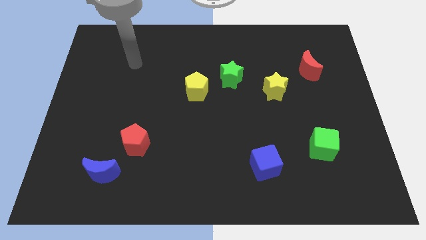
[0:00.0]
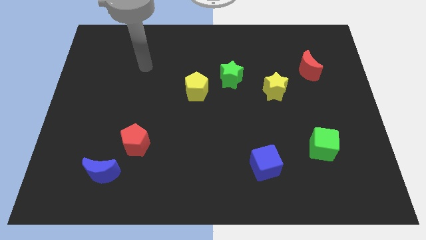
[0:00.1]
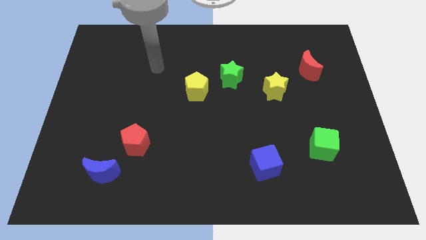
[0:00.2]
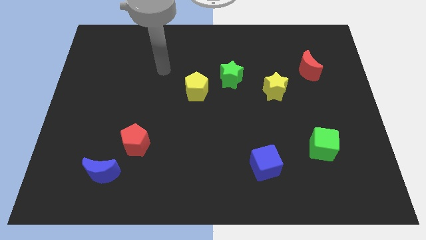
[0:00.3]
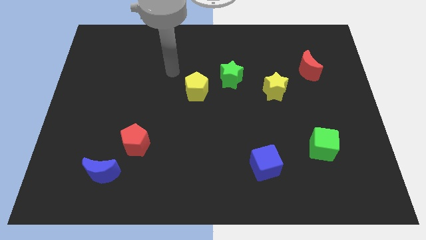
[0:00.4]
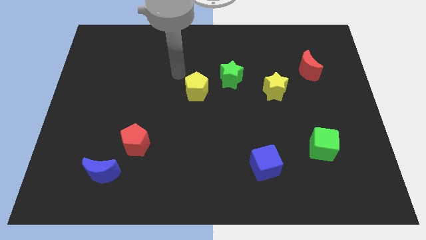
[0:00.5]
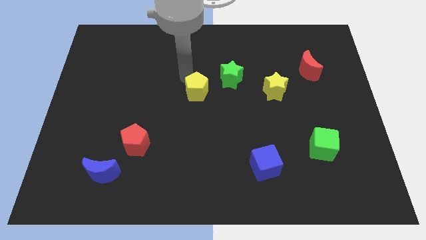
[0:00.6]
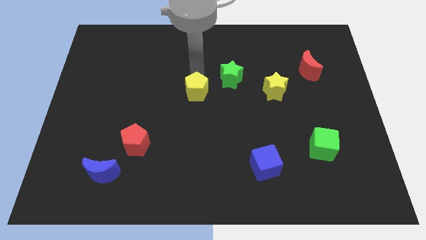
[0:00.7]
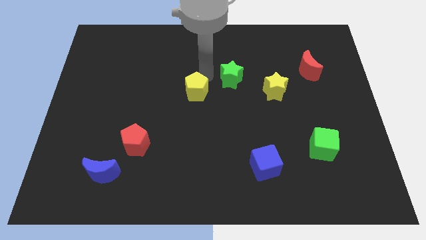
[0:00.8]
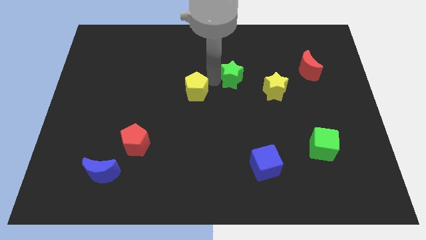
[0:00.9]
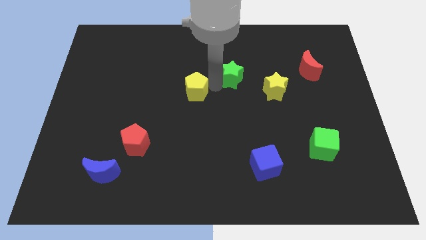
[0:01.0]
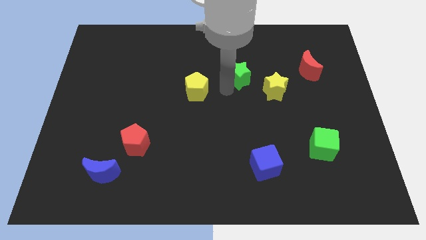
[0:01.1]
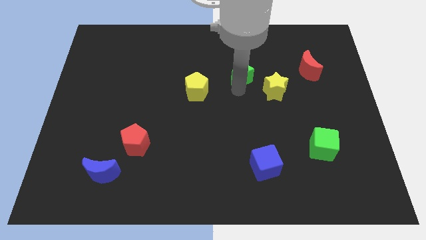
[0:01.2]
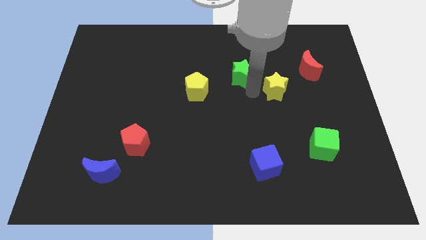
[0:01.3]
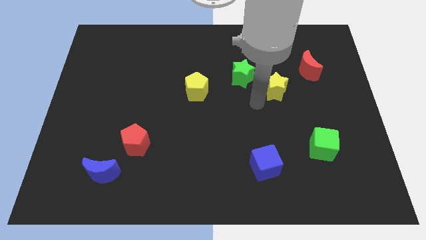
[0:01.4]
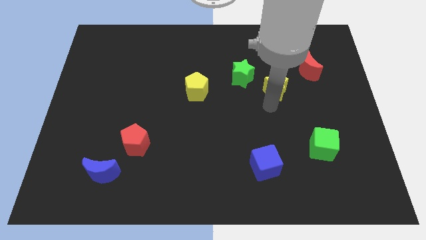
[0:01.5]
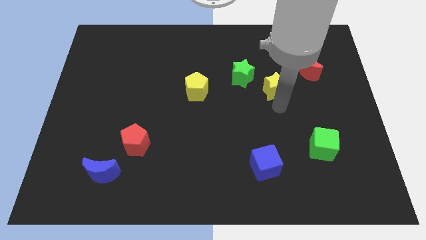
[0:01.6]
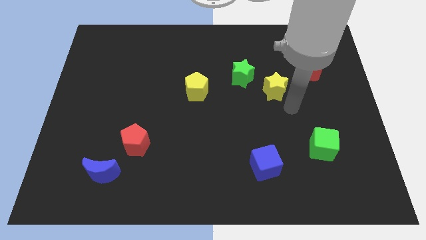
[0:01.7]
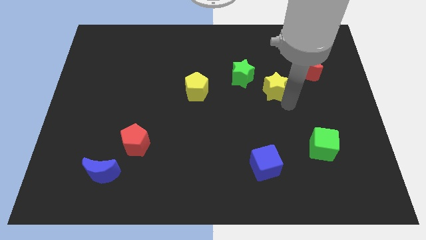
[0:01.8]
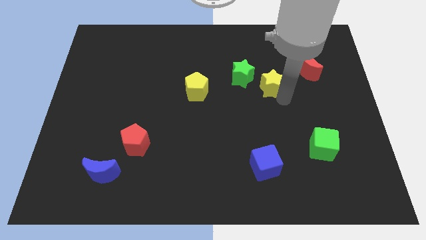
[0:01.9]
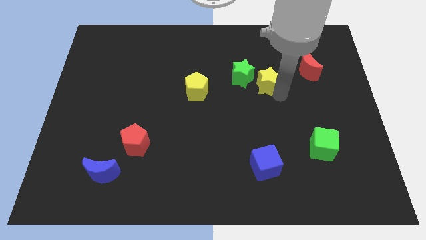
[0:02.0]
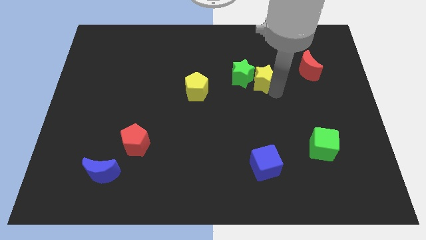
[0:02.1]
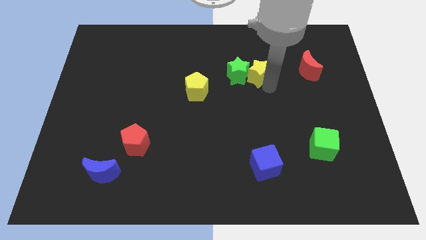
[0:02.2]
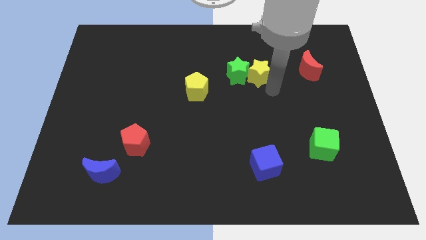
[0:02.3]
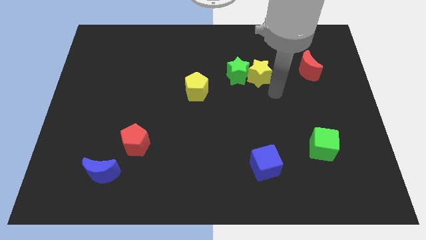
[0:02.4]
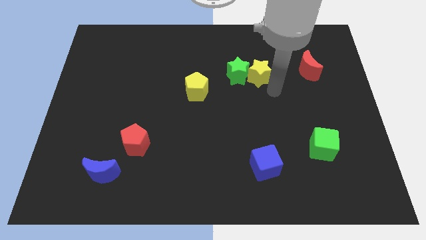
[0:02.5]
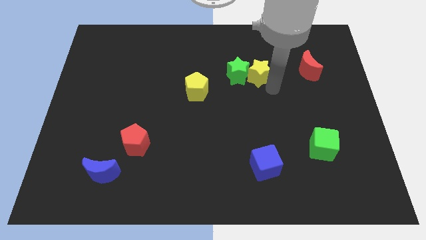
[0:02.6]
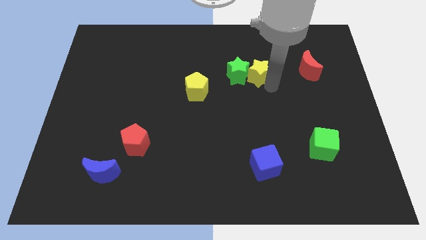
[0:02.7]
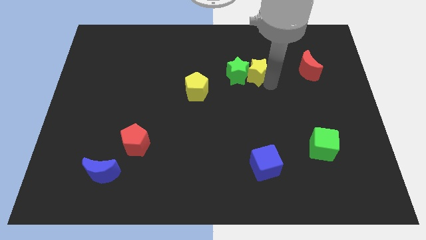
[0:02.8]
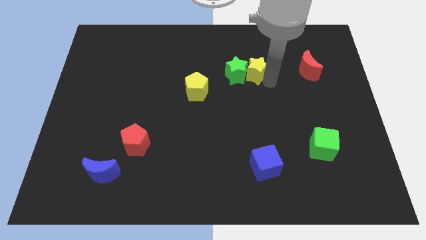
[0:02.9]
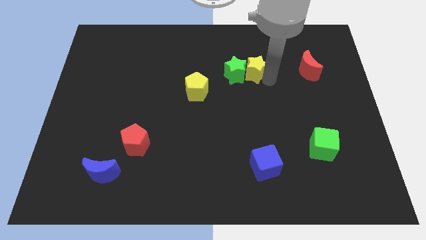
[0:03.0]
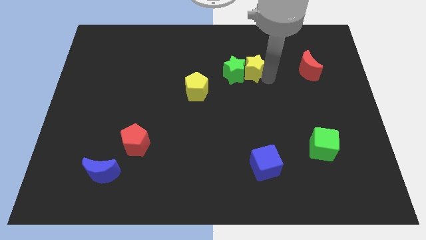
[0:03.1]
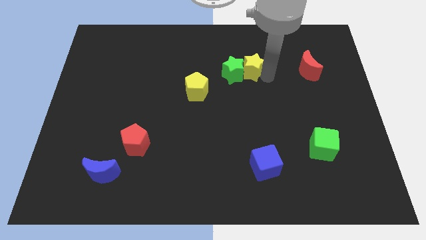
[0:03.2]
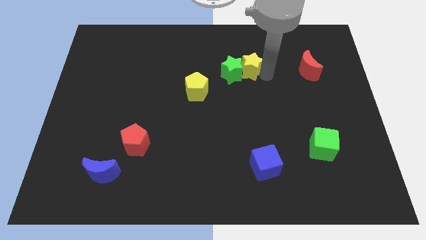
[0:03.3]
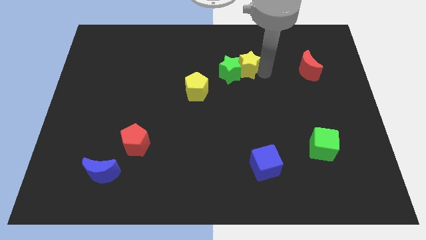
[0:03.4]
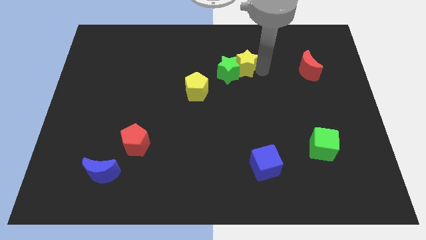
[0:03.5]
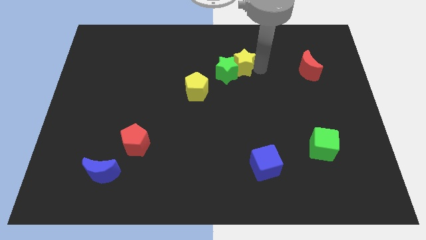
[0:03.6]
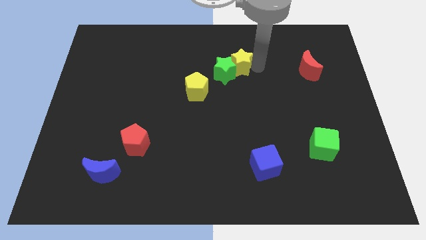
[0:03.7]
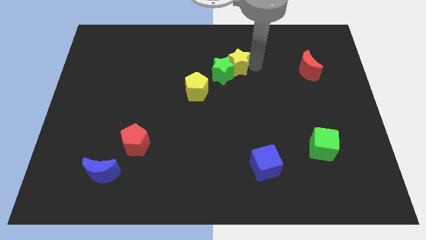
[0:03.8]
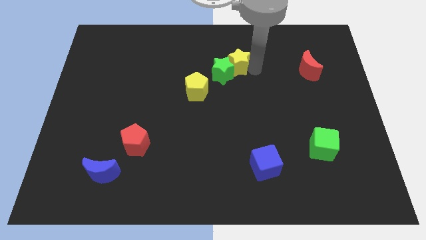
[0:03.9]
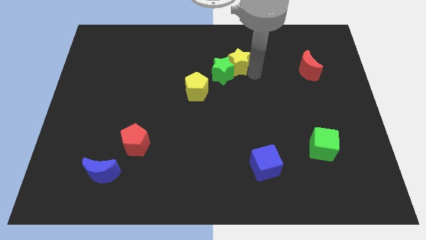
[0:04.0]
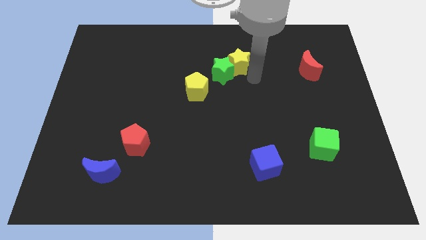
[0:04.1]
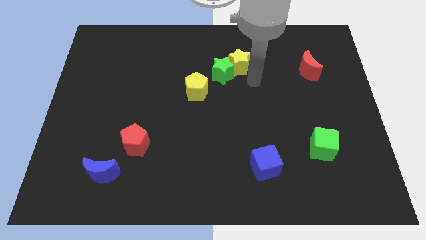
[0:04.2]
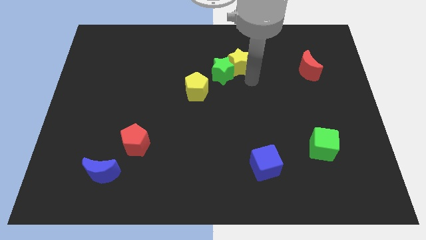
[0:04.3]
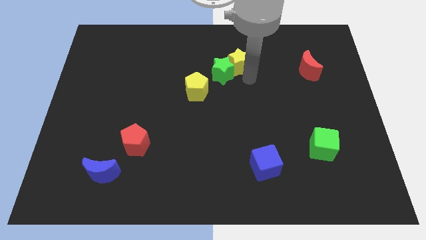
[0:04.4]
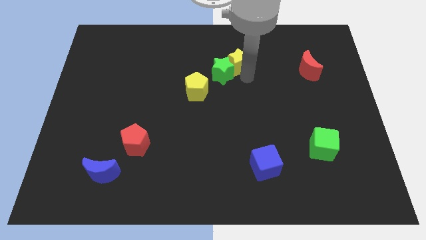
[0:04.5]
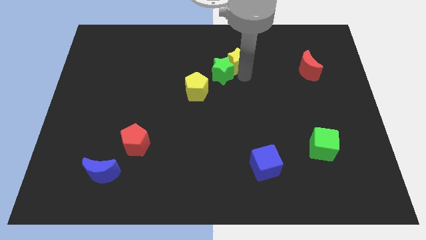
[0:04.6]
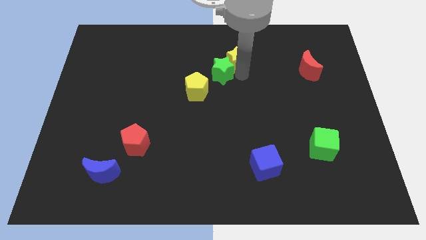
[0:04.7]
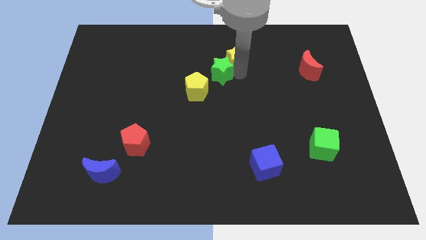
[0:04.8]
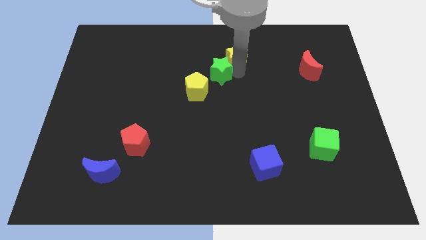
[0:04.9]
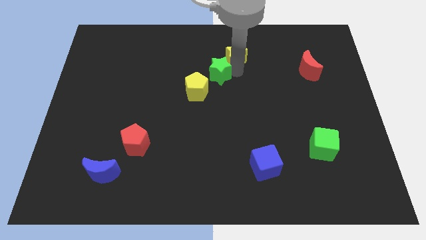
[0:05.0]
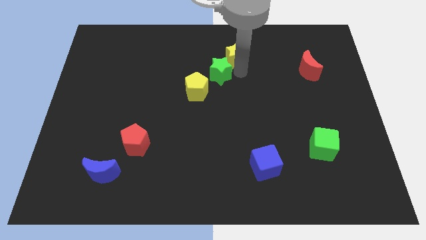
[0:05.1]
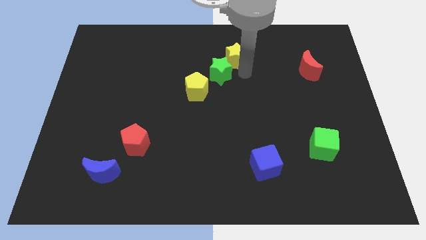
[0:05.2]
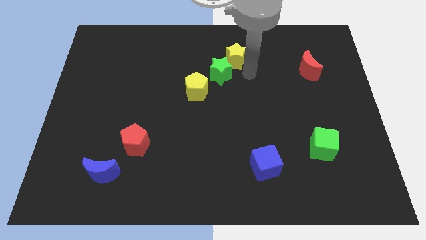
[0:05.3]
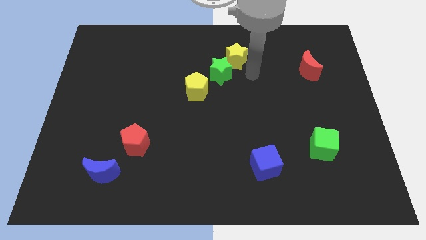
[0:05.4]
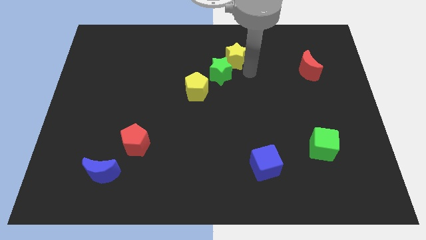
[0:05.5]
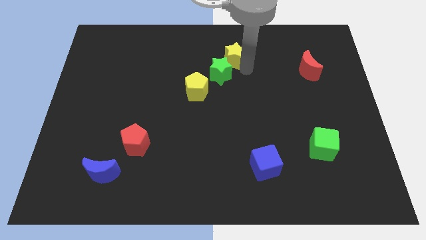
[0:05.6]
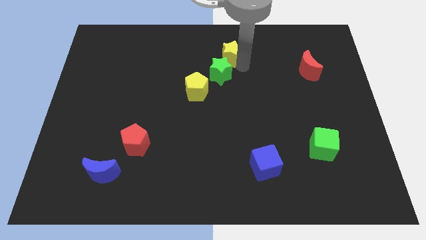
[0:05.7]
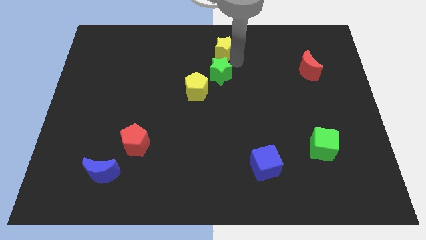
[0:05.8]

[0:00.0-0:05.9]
push the yellow star to the top side
